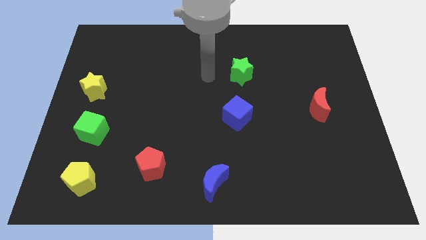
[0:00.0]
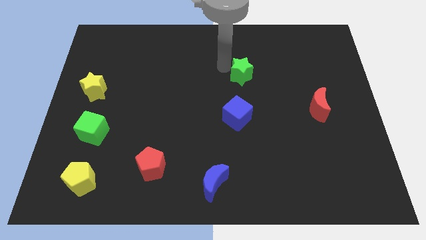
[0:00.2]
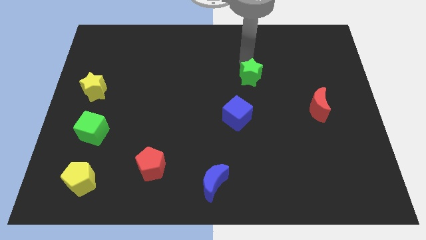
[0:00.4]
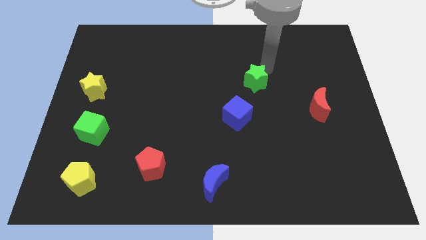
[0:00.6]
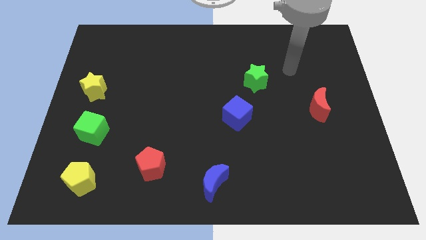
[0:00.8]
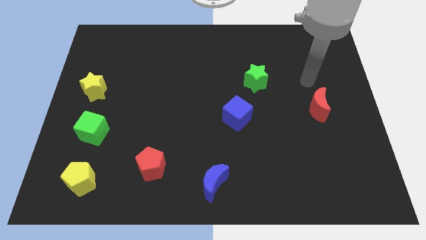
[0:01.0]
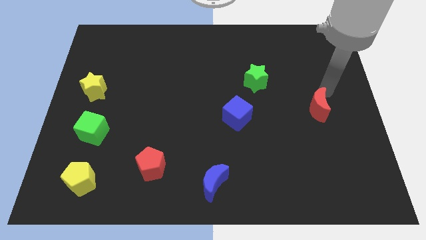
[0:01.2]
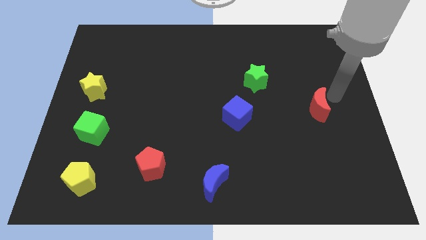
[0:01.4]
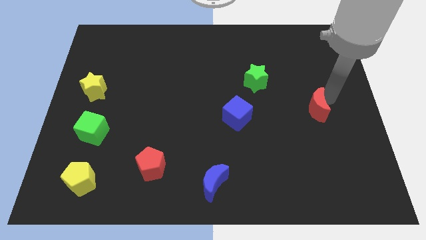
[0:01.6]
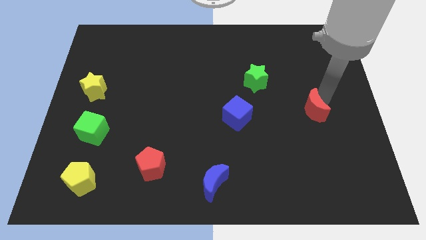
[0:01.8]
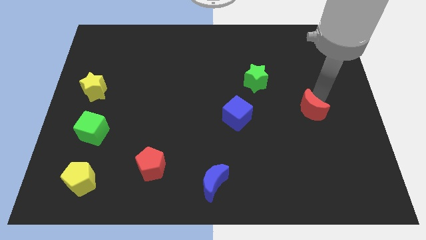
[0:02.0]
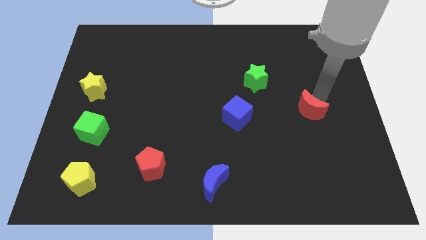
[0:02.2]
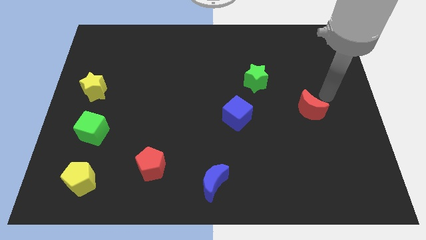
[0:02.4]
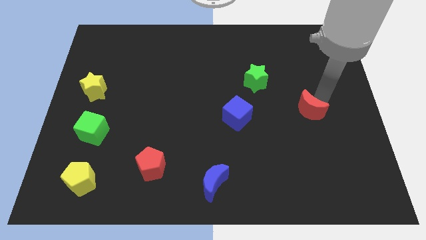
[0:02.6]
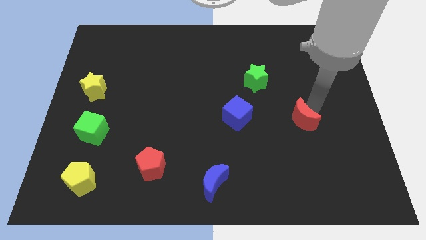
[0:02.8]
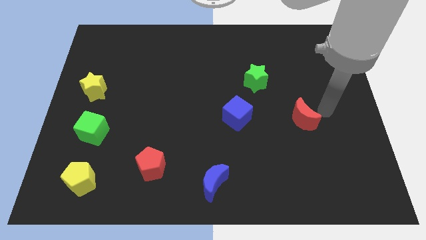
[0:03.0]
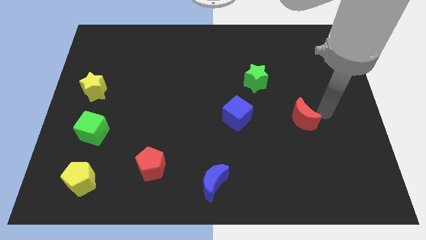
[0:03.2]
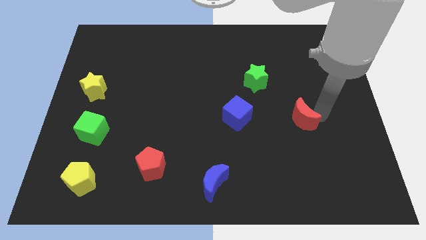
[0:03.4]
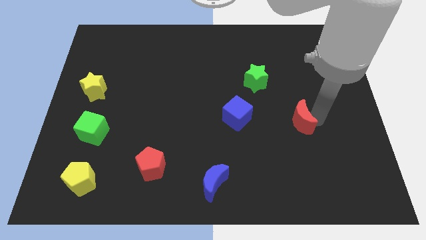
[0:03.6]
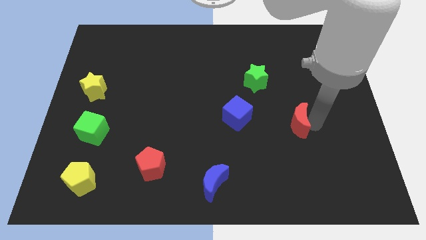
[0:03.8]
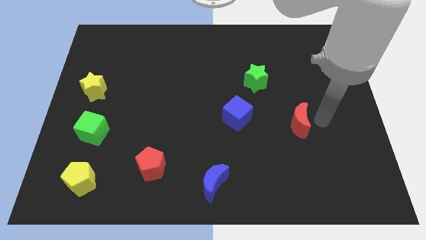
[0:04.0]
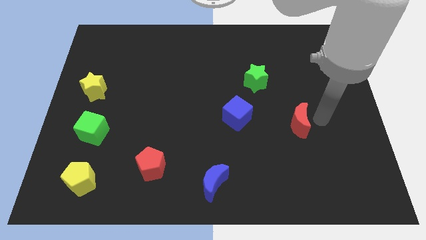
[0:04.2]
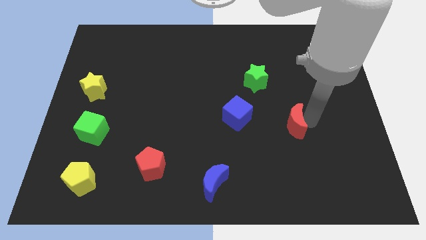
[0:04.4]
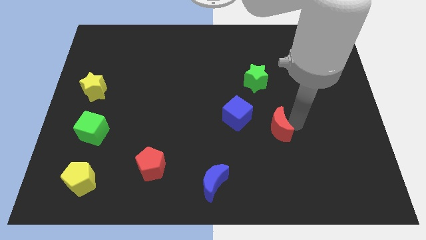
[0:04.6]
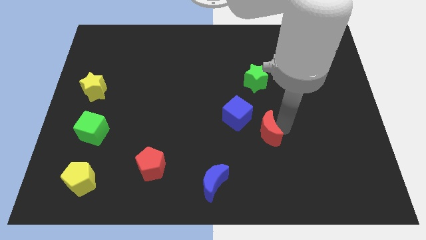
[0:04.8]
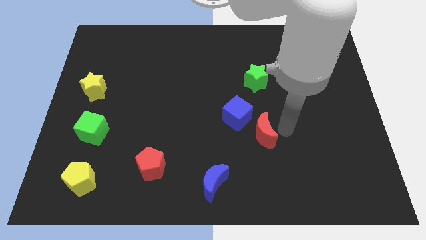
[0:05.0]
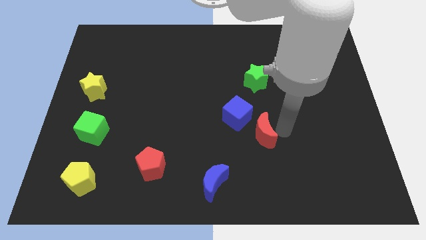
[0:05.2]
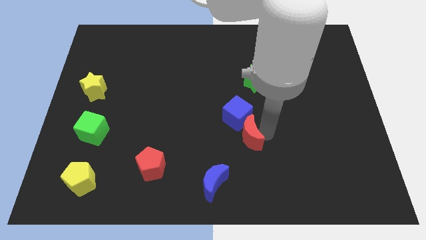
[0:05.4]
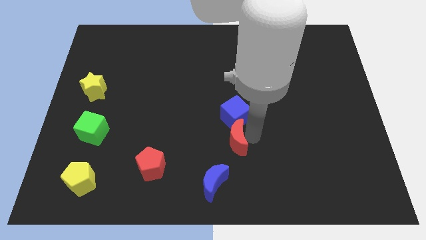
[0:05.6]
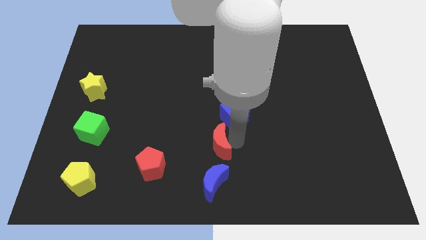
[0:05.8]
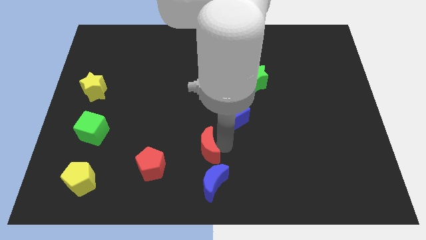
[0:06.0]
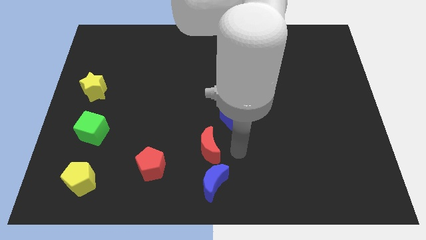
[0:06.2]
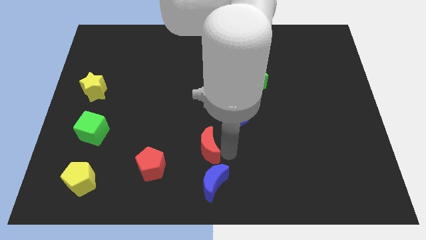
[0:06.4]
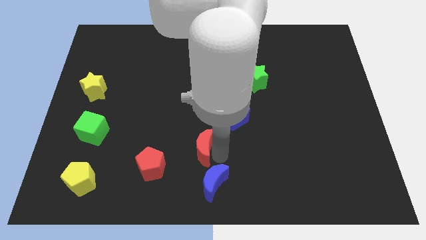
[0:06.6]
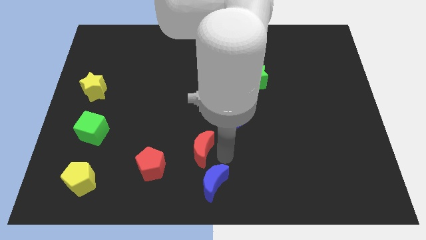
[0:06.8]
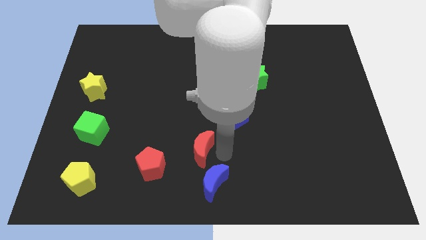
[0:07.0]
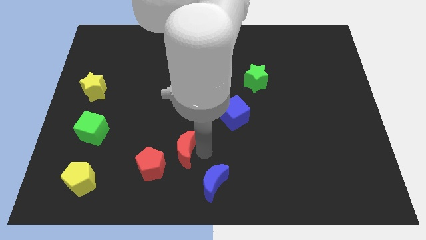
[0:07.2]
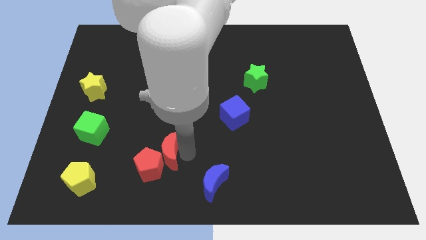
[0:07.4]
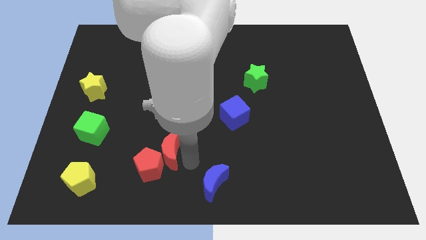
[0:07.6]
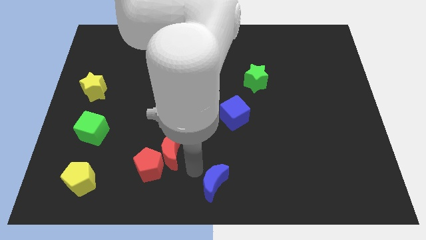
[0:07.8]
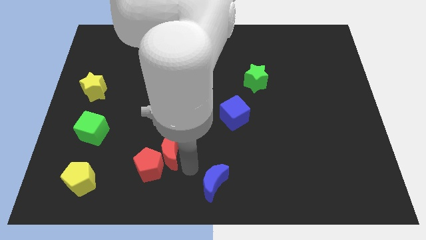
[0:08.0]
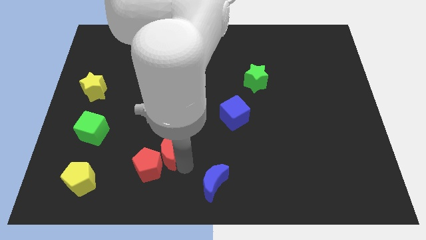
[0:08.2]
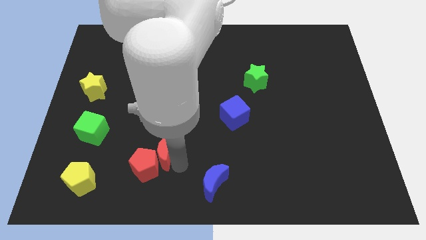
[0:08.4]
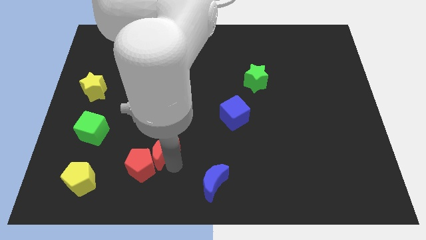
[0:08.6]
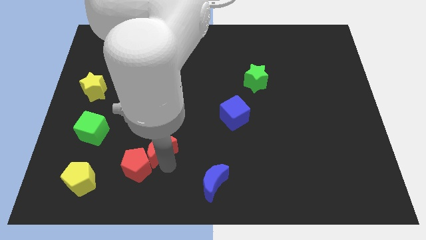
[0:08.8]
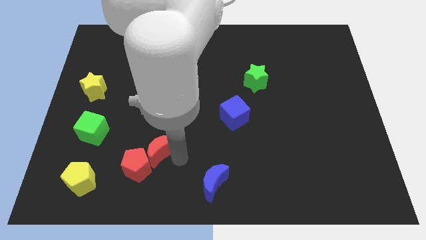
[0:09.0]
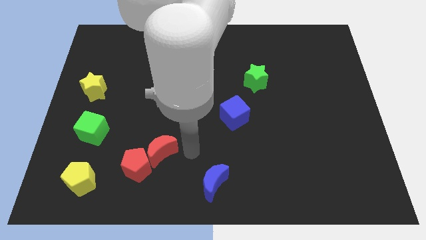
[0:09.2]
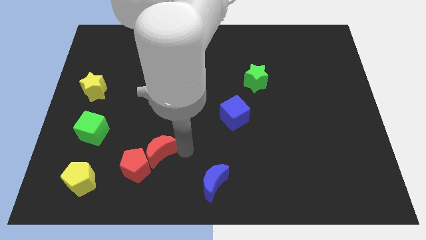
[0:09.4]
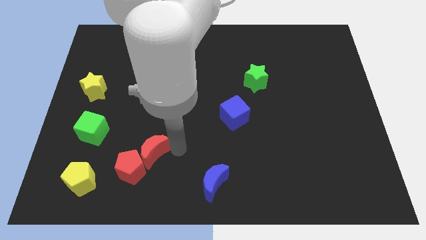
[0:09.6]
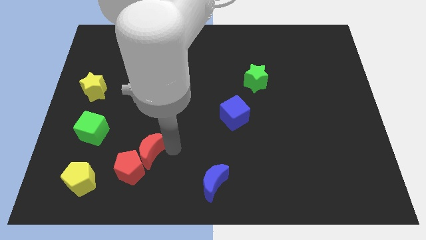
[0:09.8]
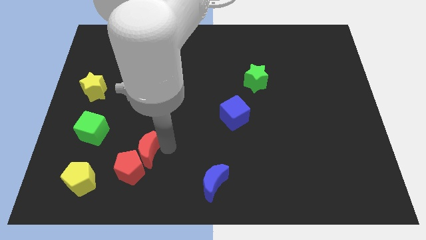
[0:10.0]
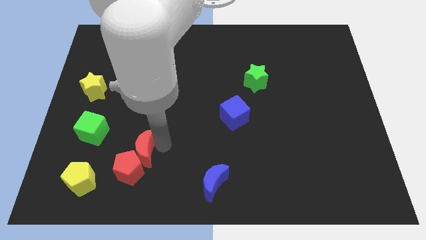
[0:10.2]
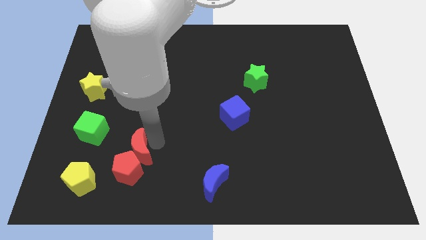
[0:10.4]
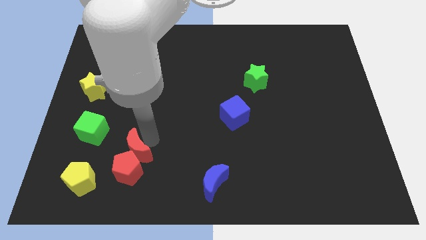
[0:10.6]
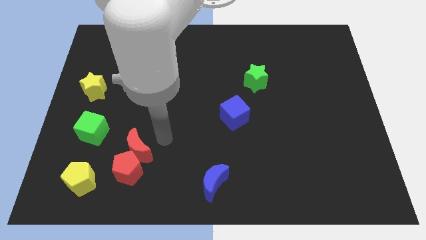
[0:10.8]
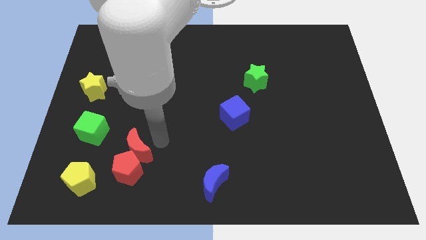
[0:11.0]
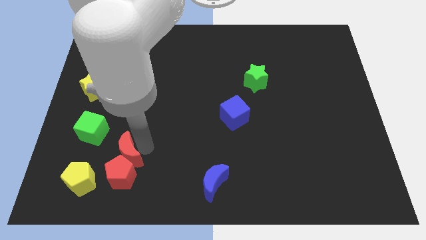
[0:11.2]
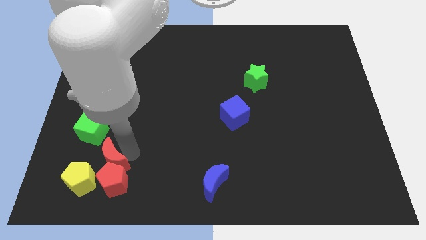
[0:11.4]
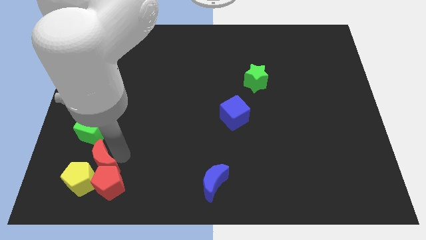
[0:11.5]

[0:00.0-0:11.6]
push the red moon next to the yellow pentagon

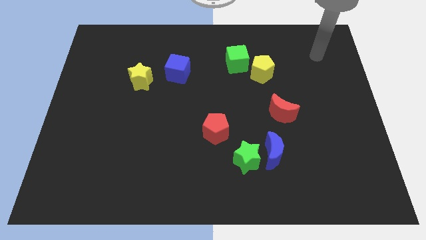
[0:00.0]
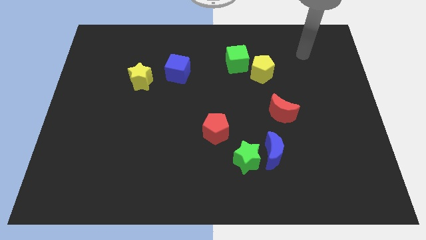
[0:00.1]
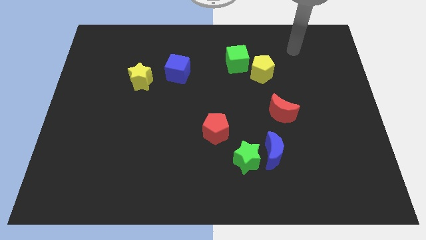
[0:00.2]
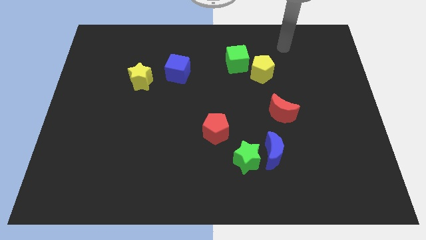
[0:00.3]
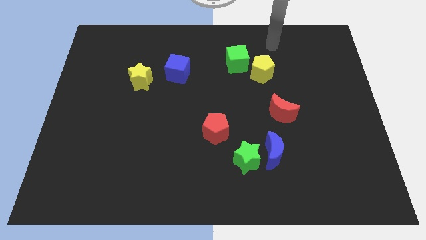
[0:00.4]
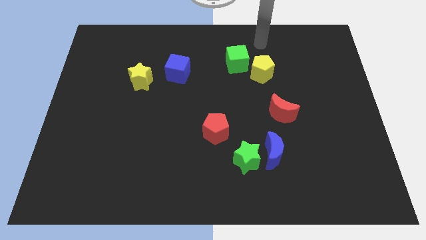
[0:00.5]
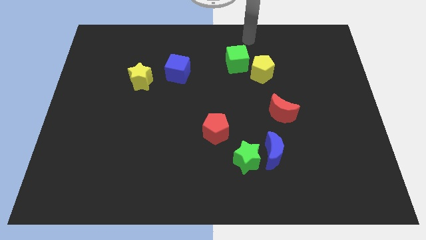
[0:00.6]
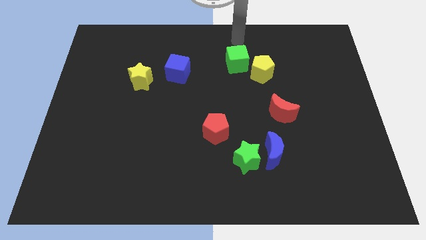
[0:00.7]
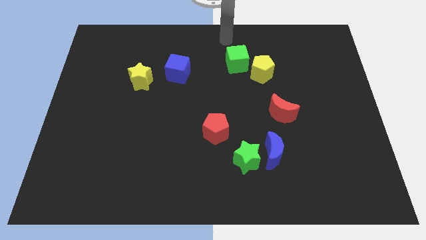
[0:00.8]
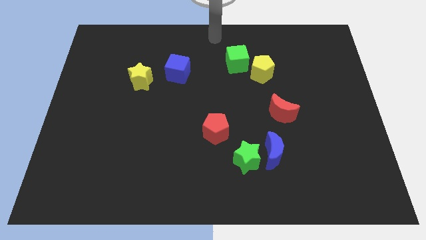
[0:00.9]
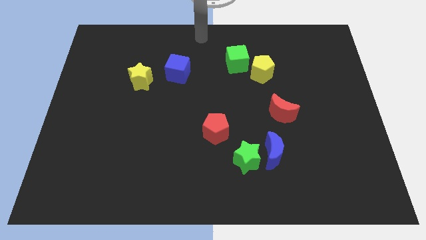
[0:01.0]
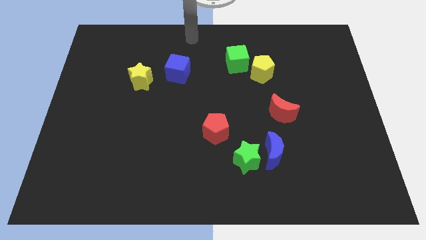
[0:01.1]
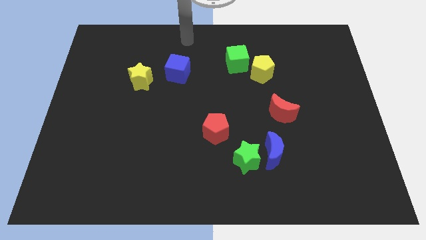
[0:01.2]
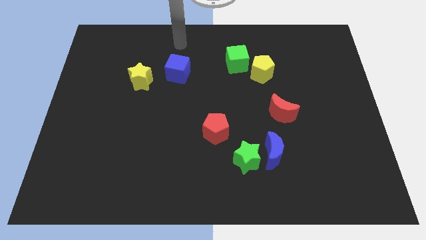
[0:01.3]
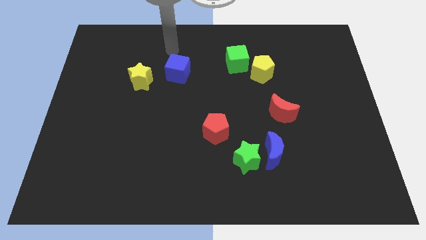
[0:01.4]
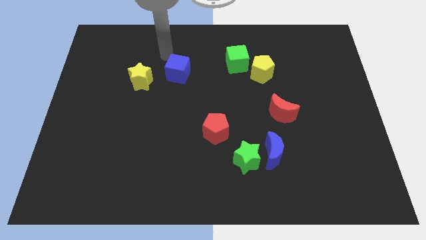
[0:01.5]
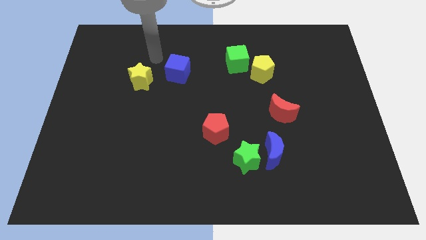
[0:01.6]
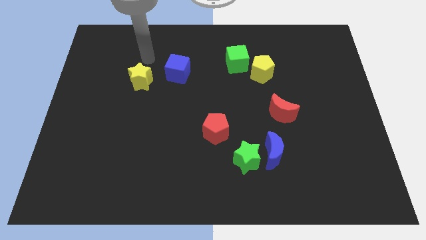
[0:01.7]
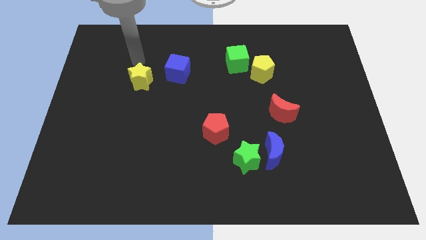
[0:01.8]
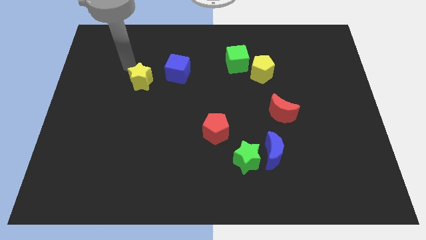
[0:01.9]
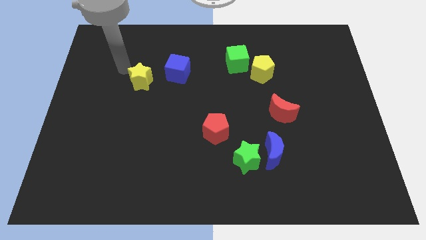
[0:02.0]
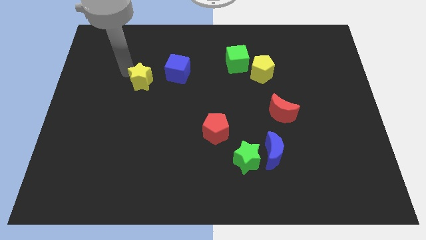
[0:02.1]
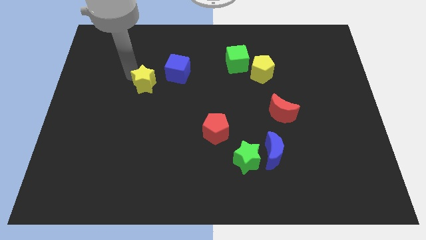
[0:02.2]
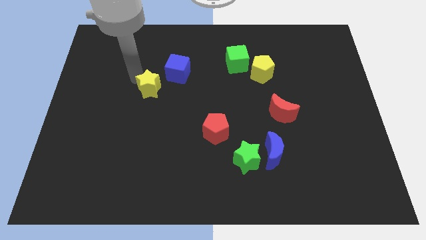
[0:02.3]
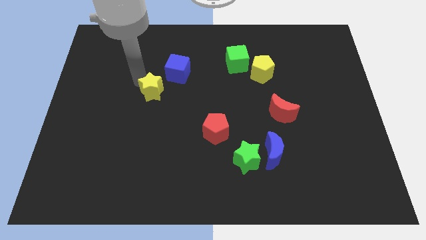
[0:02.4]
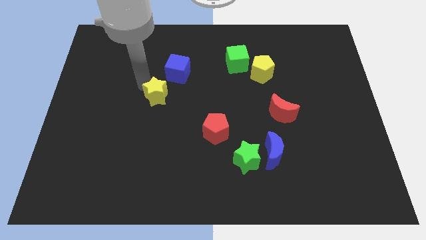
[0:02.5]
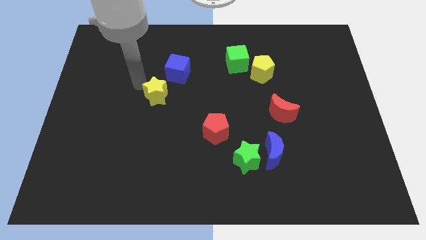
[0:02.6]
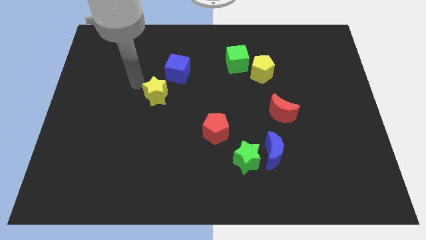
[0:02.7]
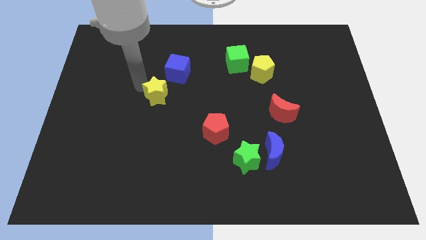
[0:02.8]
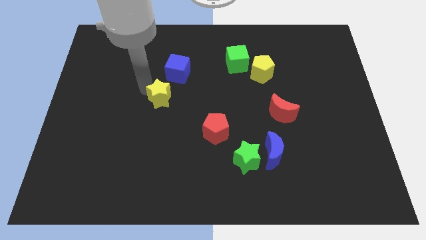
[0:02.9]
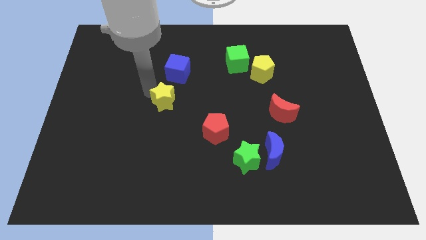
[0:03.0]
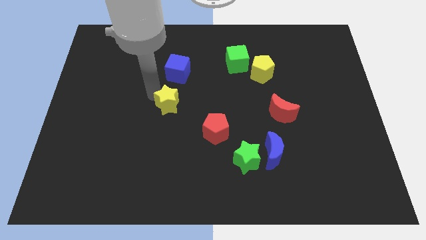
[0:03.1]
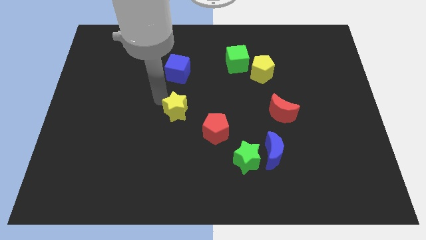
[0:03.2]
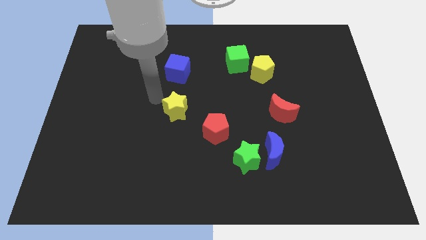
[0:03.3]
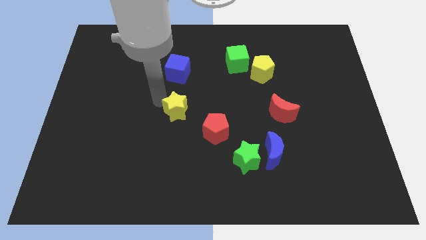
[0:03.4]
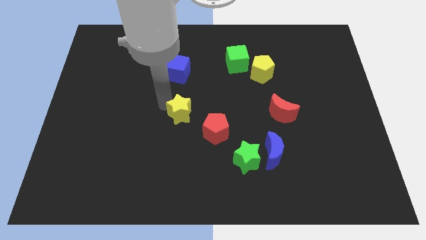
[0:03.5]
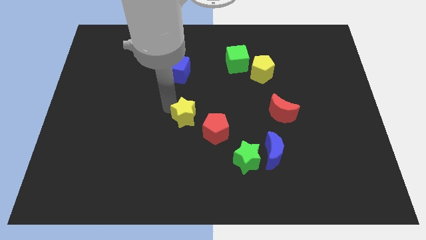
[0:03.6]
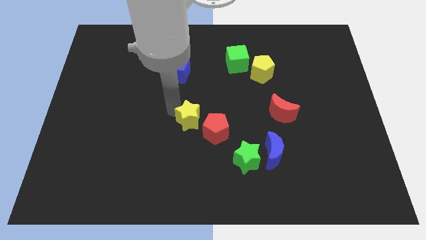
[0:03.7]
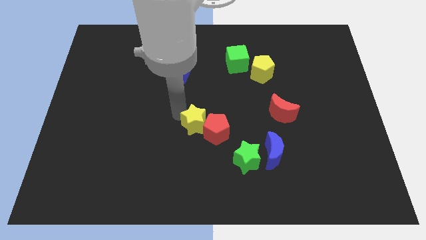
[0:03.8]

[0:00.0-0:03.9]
push the yellow star close to the red pentagon
